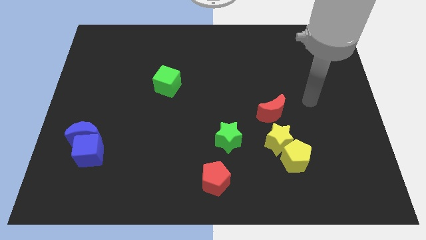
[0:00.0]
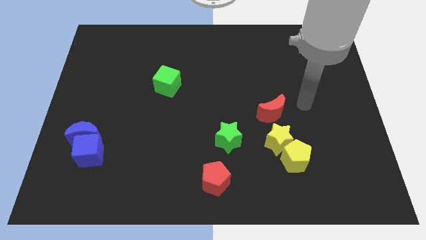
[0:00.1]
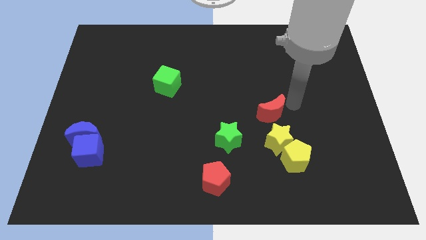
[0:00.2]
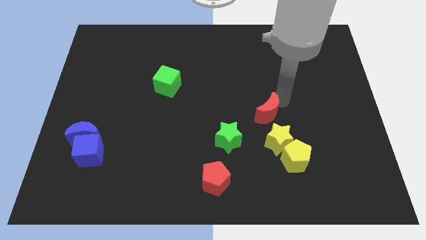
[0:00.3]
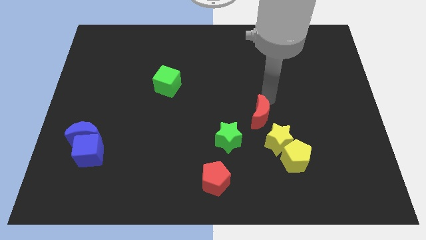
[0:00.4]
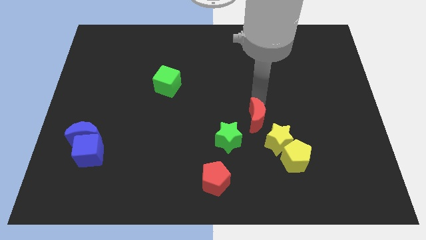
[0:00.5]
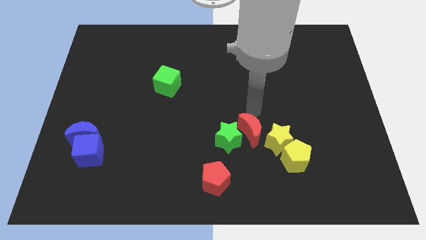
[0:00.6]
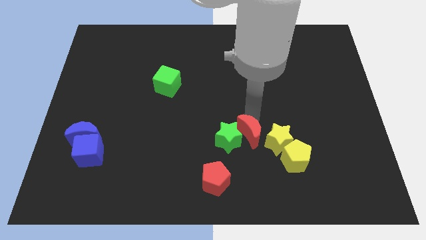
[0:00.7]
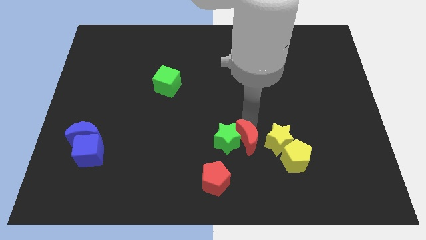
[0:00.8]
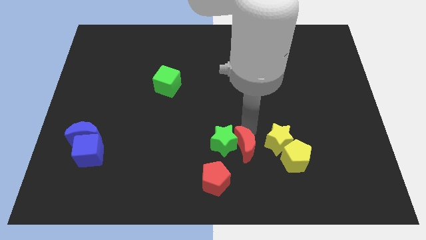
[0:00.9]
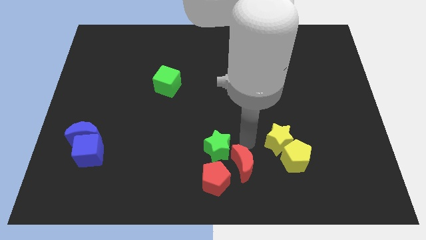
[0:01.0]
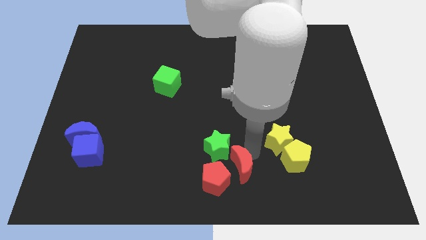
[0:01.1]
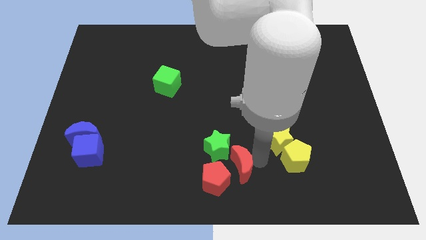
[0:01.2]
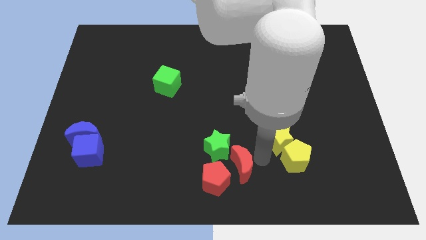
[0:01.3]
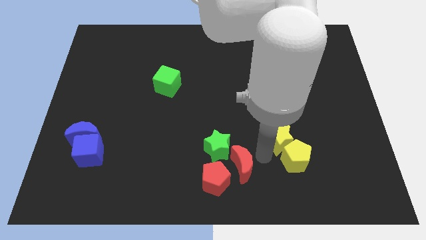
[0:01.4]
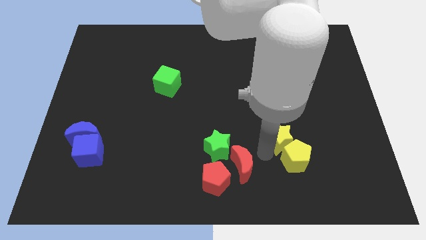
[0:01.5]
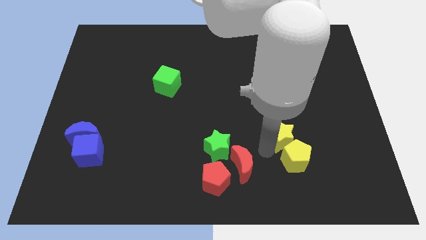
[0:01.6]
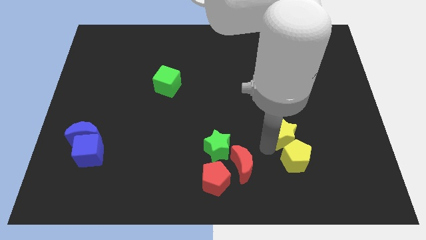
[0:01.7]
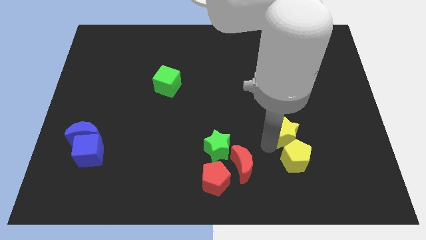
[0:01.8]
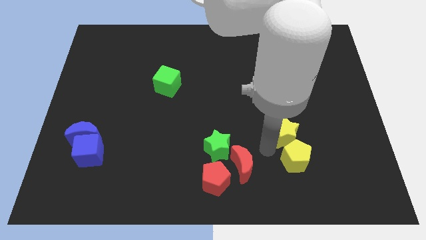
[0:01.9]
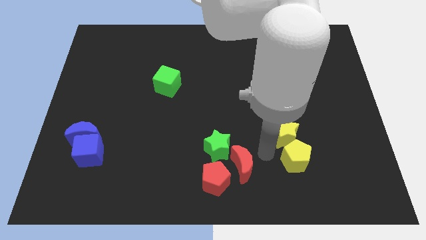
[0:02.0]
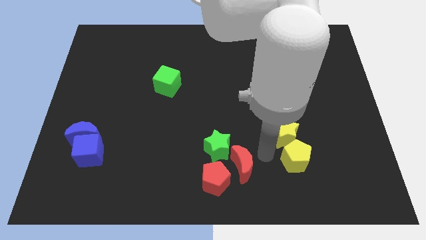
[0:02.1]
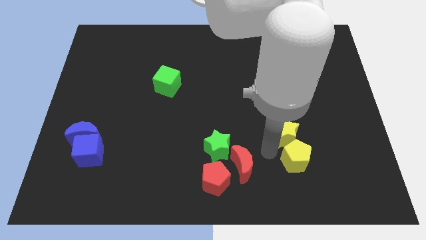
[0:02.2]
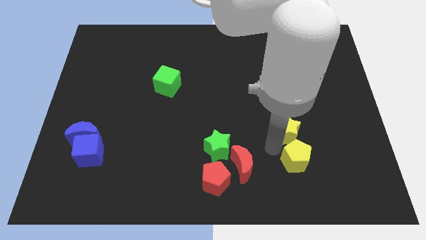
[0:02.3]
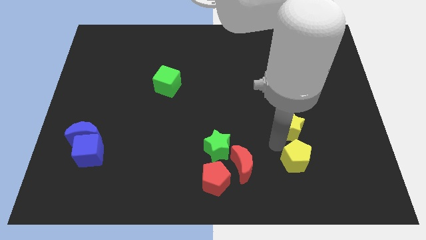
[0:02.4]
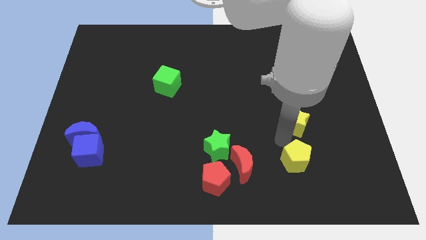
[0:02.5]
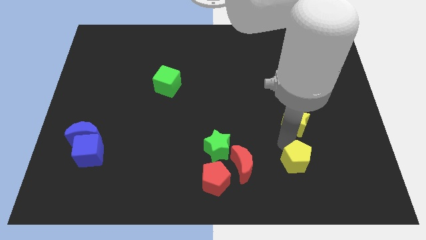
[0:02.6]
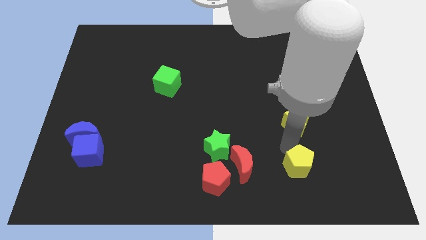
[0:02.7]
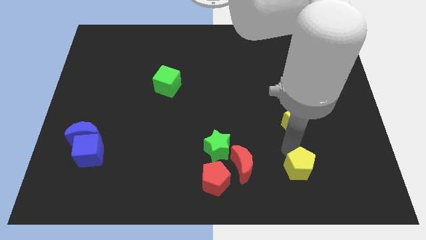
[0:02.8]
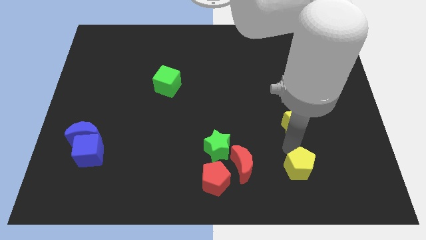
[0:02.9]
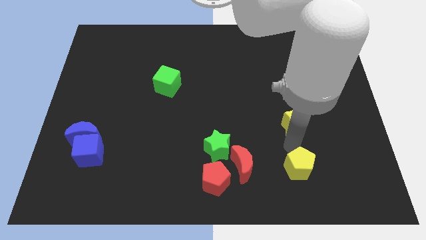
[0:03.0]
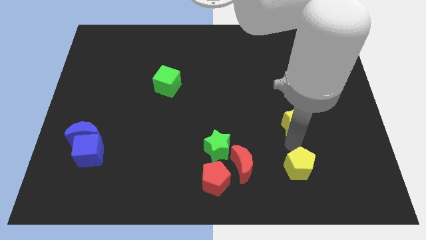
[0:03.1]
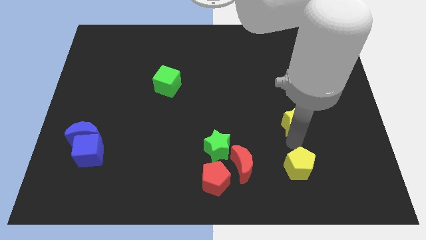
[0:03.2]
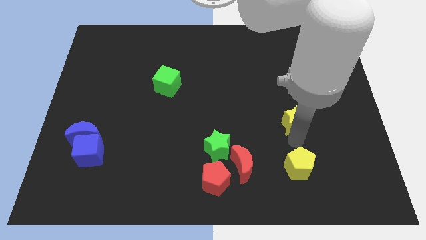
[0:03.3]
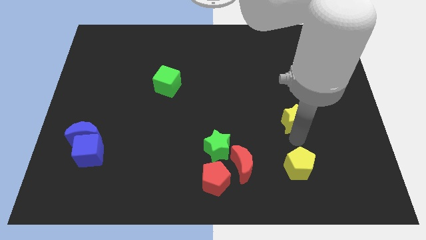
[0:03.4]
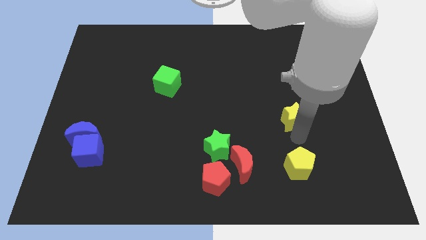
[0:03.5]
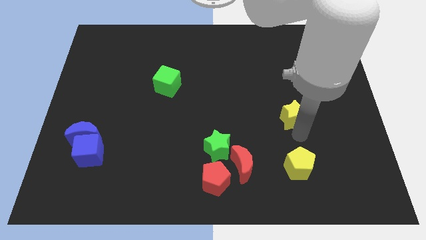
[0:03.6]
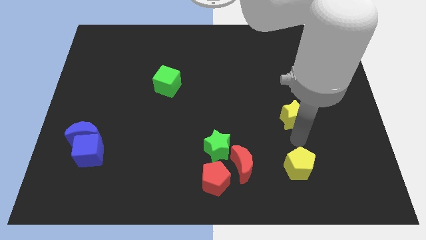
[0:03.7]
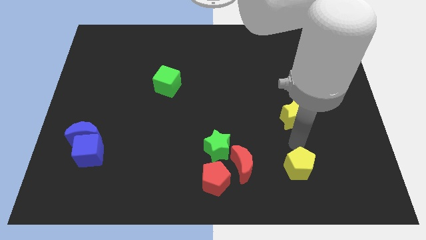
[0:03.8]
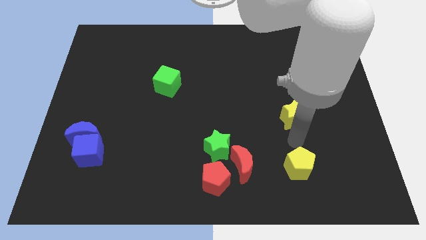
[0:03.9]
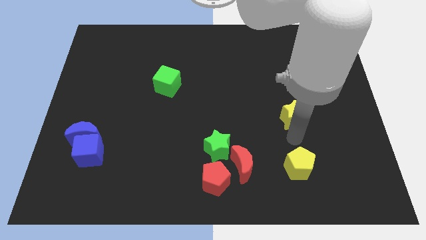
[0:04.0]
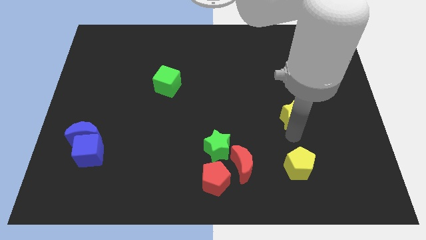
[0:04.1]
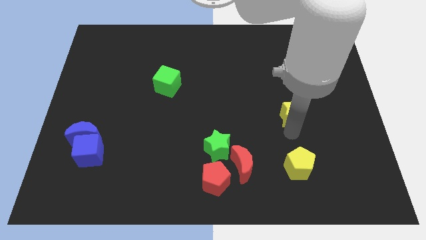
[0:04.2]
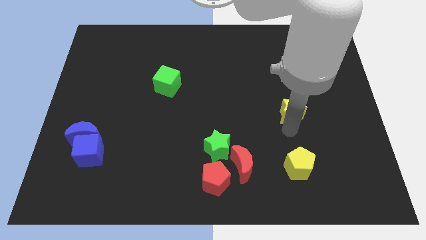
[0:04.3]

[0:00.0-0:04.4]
slide the yellow star a little upwards

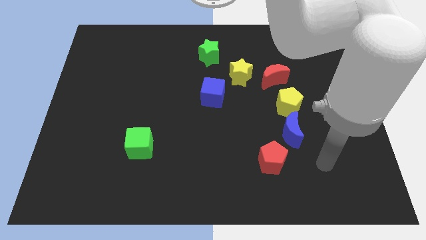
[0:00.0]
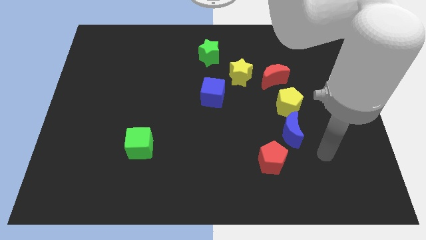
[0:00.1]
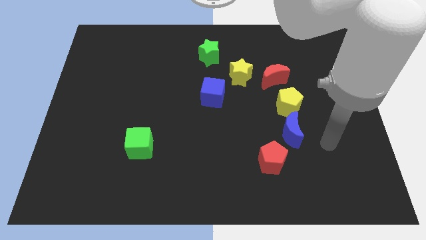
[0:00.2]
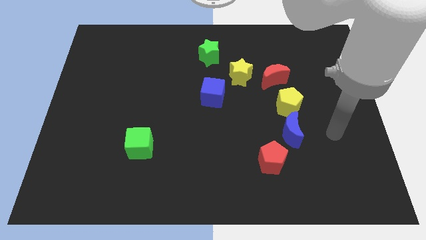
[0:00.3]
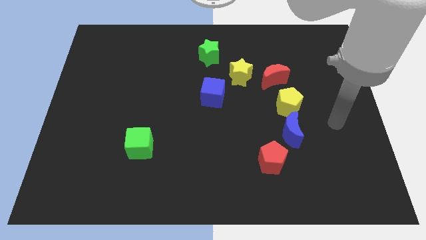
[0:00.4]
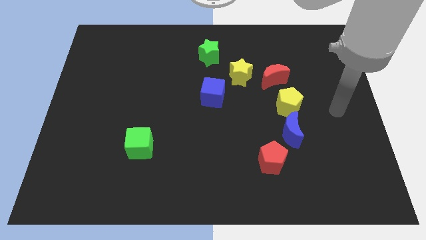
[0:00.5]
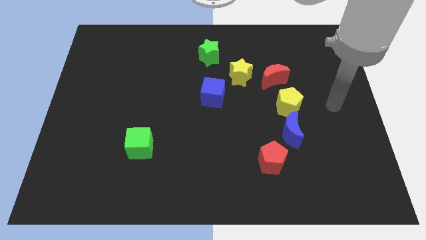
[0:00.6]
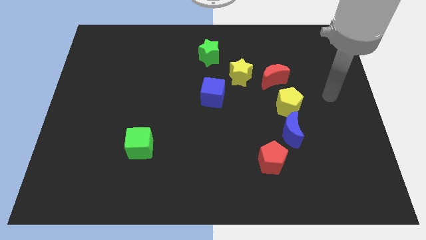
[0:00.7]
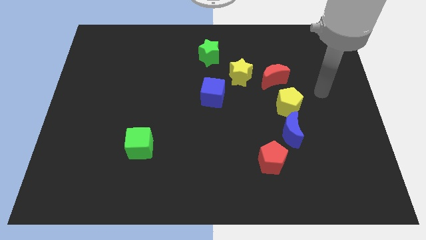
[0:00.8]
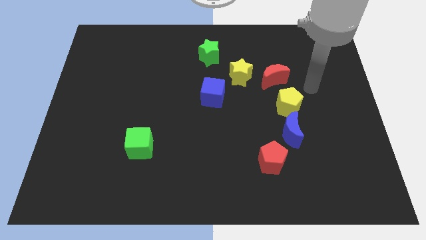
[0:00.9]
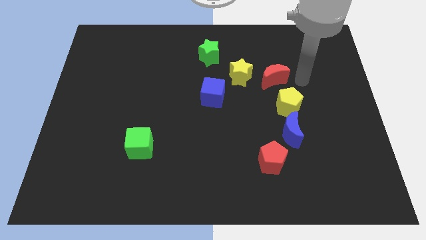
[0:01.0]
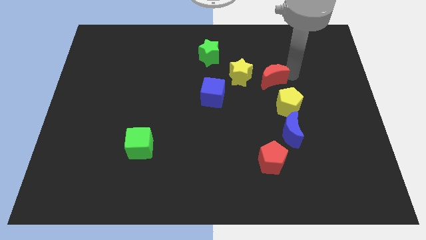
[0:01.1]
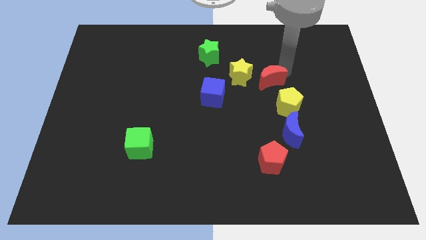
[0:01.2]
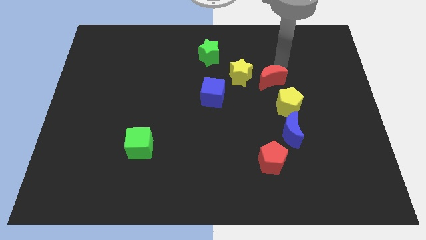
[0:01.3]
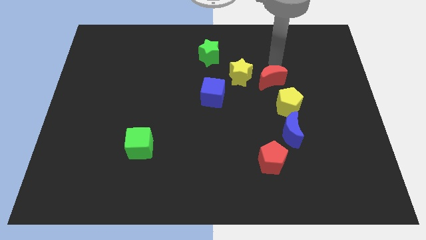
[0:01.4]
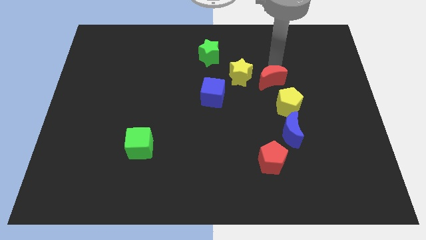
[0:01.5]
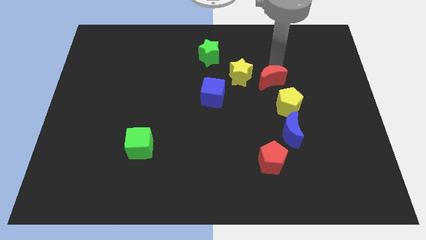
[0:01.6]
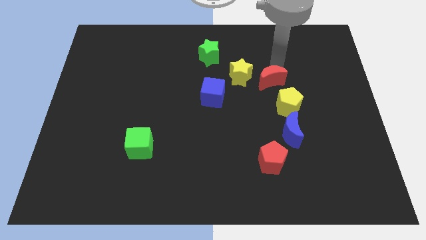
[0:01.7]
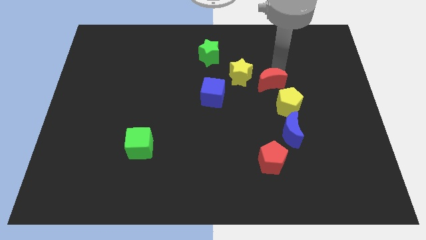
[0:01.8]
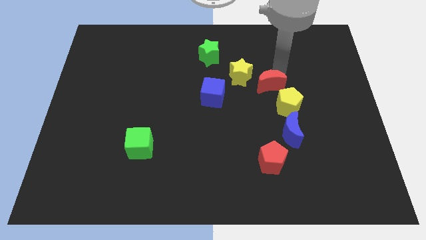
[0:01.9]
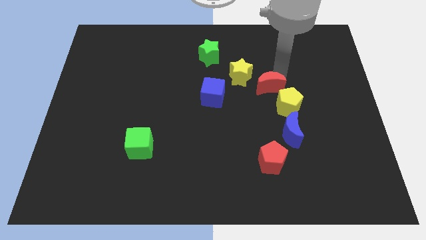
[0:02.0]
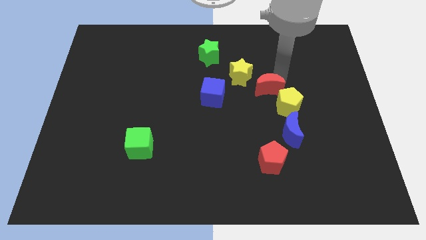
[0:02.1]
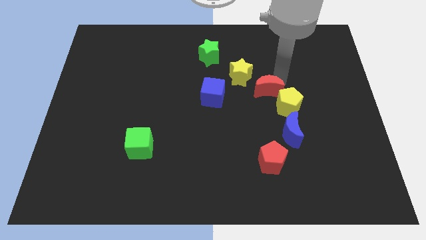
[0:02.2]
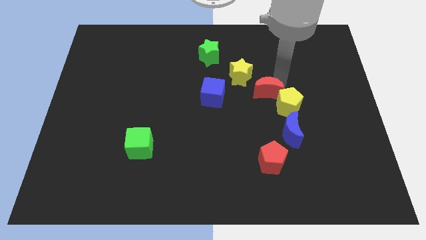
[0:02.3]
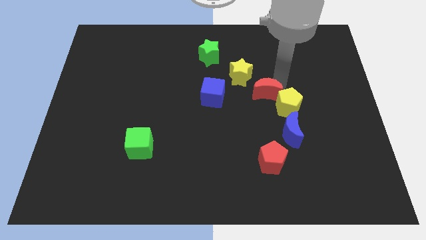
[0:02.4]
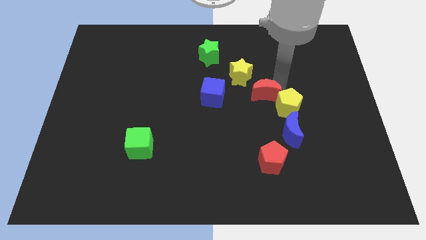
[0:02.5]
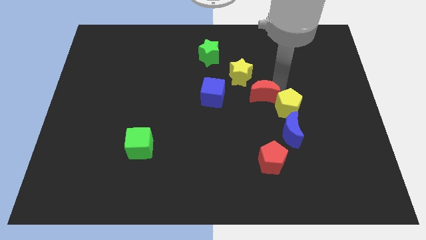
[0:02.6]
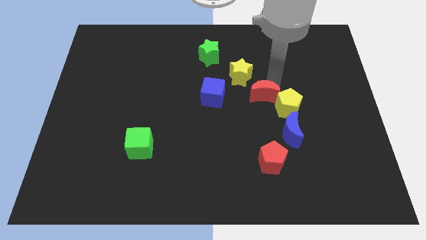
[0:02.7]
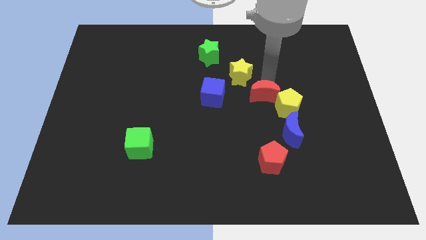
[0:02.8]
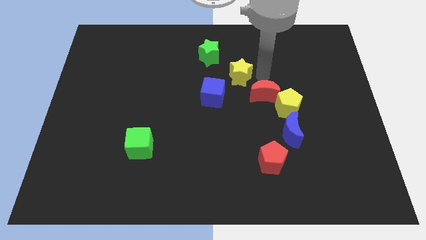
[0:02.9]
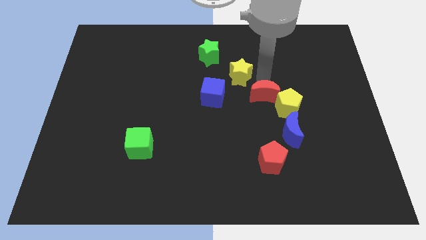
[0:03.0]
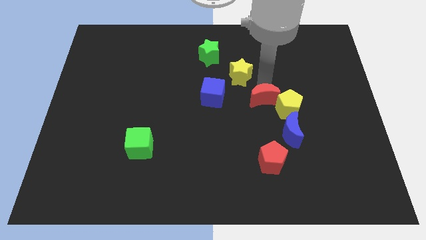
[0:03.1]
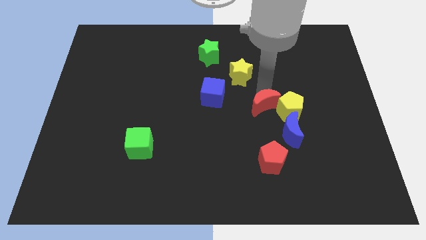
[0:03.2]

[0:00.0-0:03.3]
push the red moon slightly down

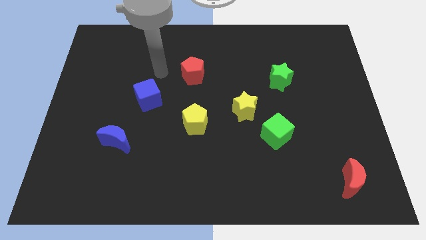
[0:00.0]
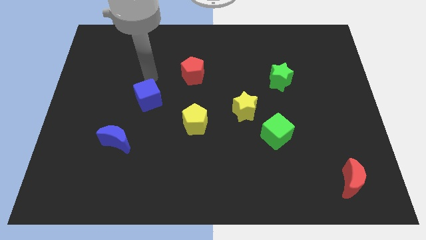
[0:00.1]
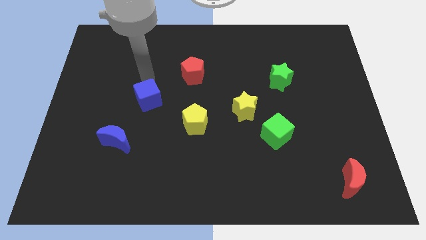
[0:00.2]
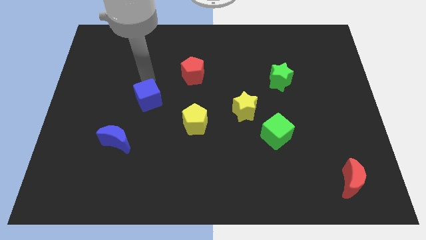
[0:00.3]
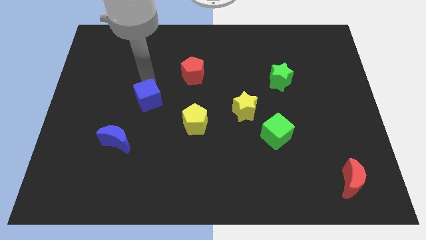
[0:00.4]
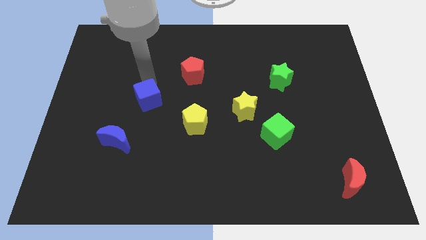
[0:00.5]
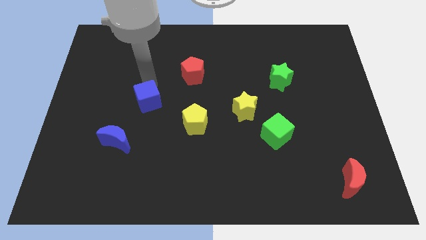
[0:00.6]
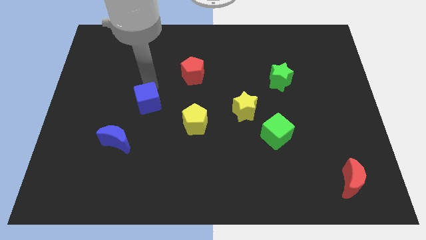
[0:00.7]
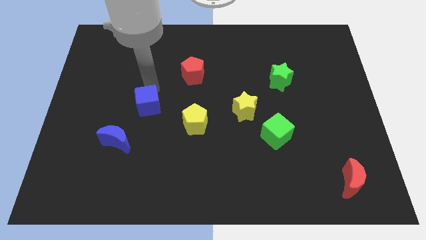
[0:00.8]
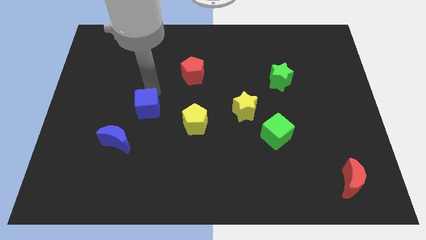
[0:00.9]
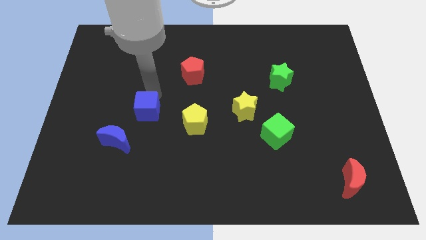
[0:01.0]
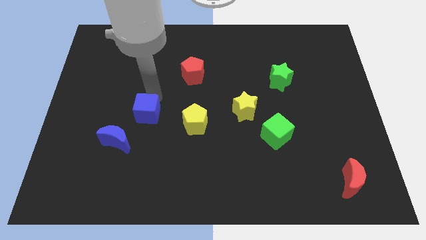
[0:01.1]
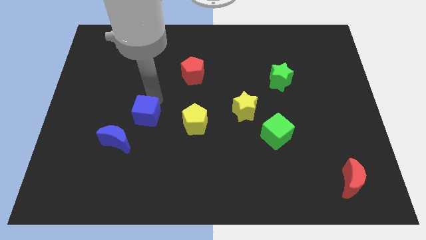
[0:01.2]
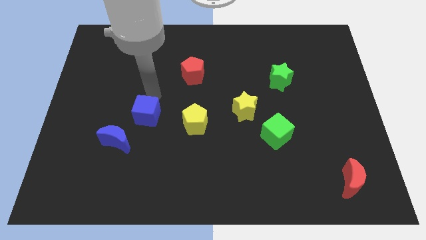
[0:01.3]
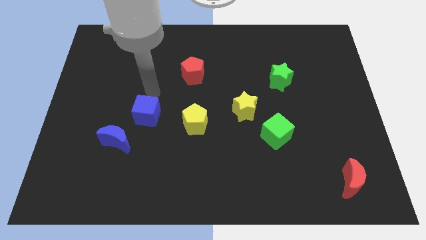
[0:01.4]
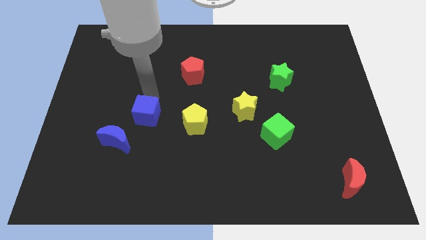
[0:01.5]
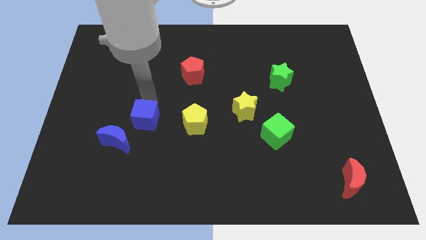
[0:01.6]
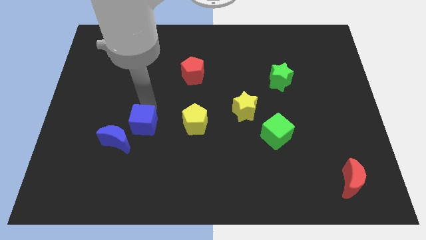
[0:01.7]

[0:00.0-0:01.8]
slightly push the blue cube downwards
